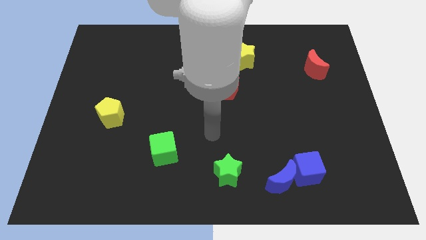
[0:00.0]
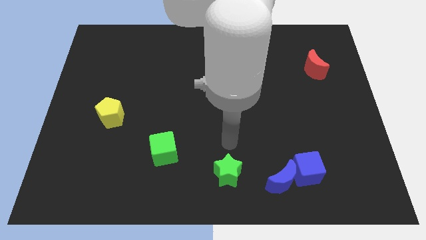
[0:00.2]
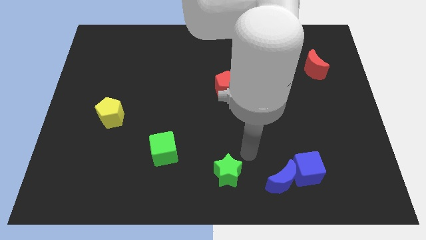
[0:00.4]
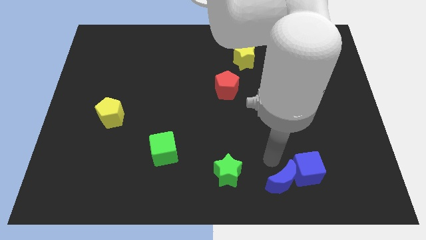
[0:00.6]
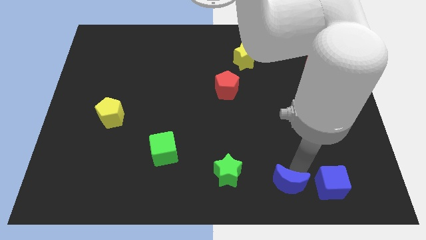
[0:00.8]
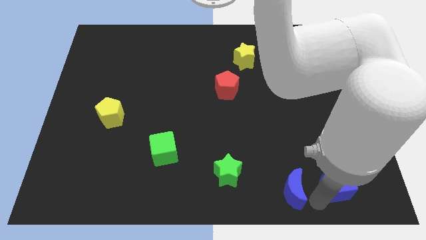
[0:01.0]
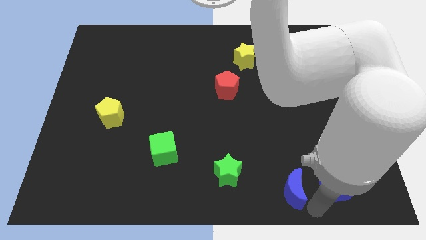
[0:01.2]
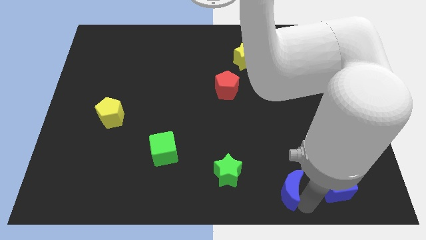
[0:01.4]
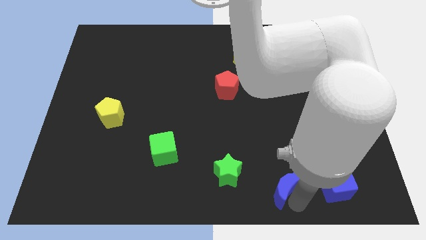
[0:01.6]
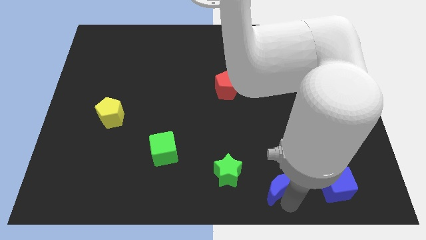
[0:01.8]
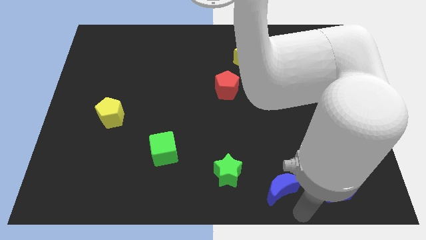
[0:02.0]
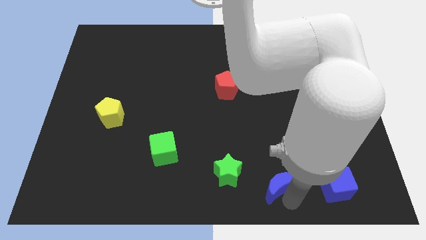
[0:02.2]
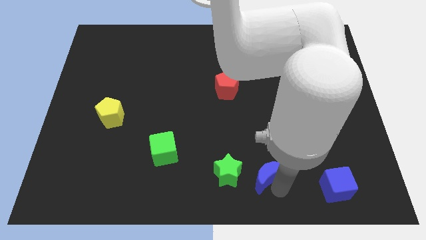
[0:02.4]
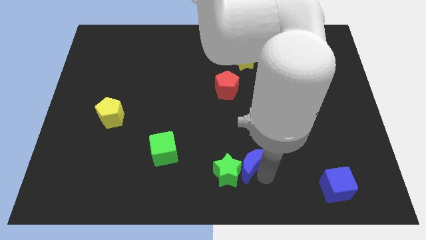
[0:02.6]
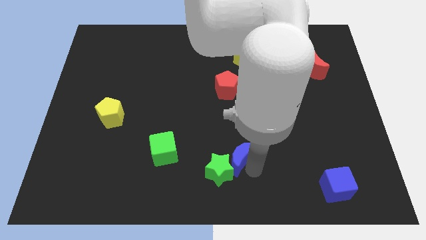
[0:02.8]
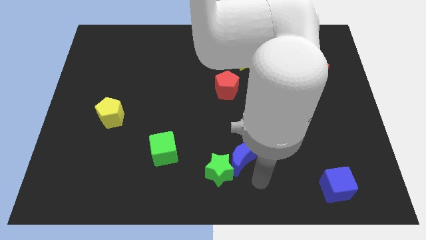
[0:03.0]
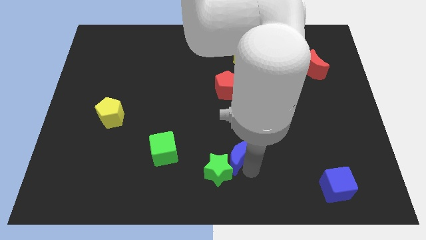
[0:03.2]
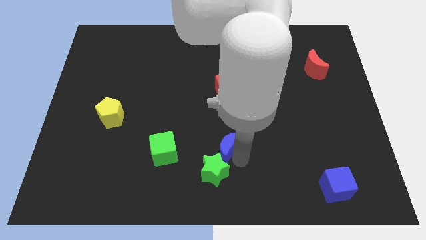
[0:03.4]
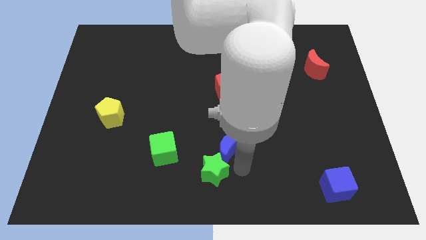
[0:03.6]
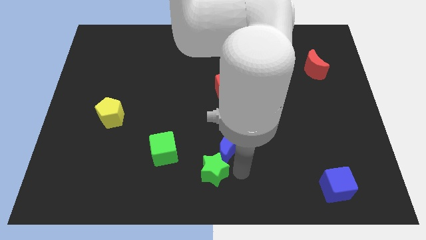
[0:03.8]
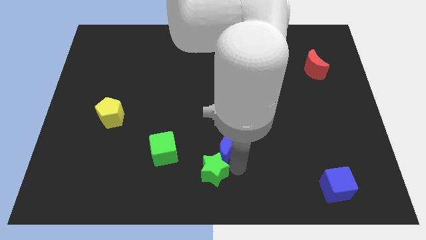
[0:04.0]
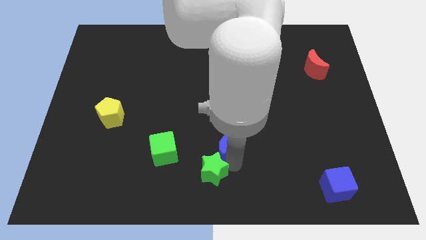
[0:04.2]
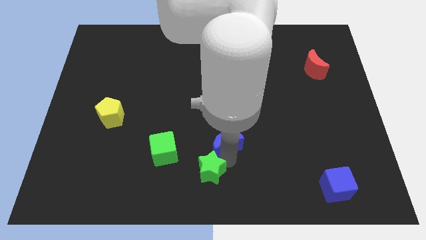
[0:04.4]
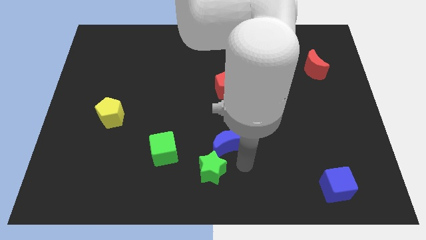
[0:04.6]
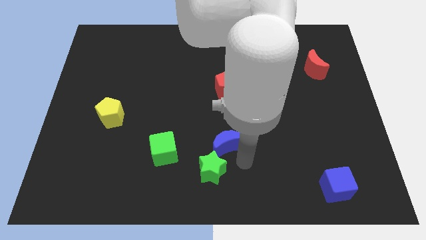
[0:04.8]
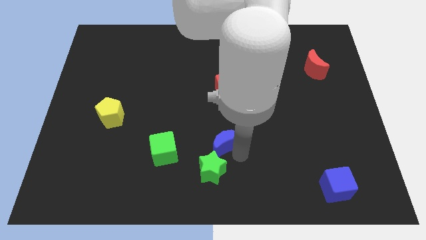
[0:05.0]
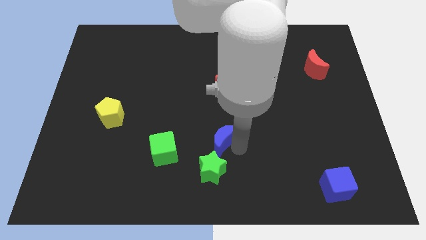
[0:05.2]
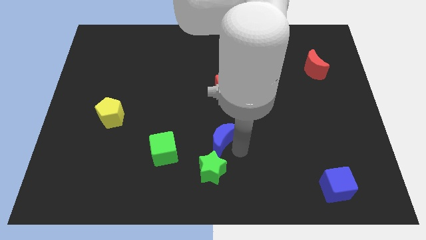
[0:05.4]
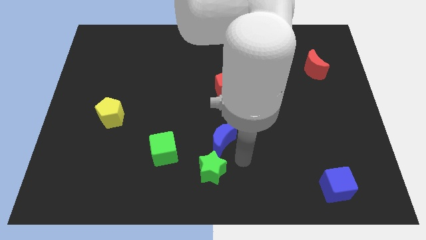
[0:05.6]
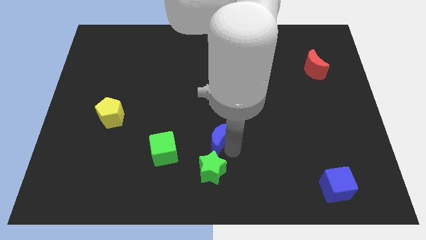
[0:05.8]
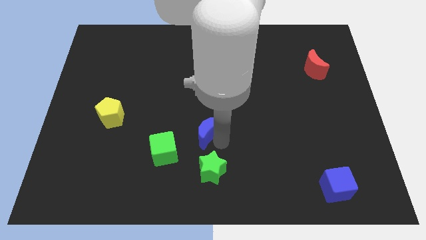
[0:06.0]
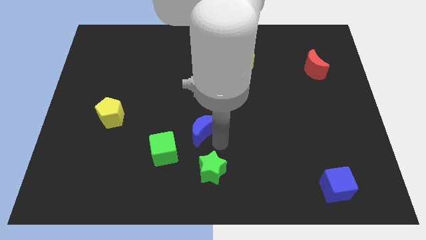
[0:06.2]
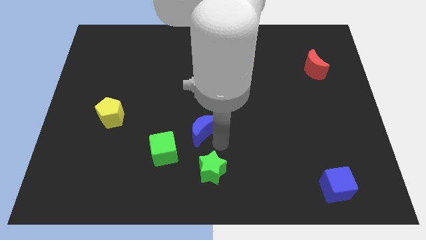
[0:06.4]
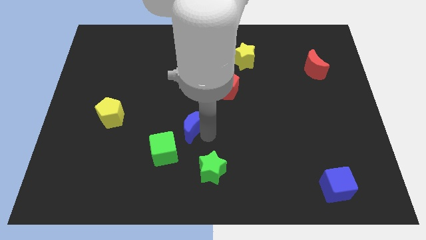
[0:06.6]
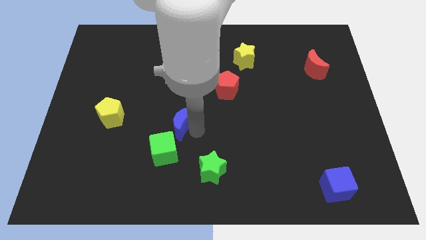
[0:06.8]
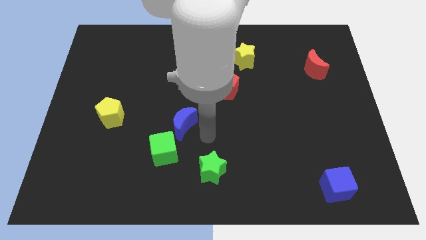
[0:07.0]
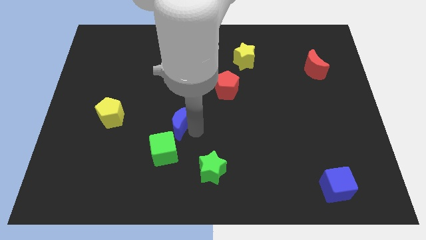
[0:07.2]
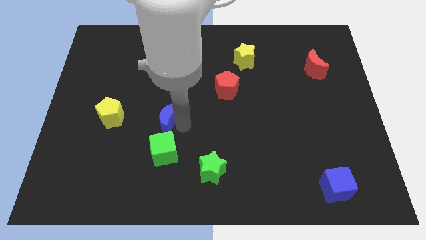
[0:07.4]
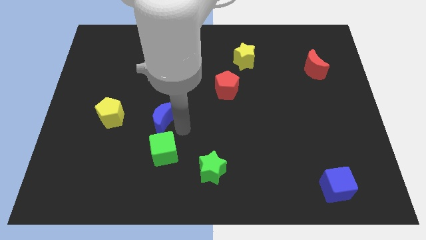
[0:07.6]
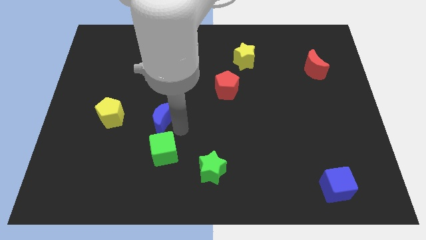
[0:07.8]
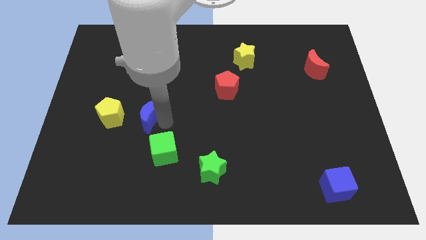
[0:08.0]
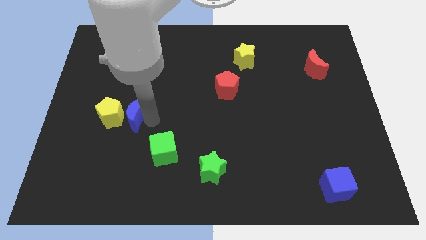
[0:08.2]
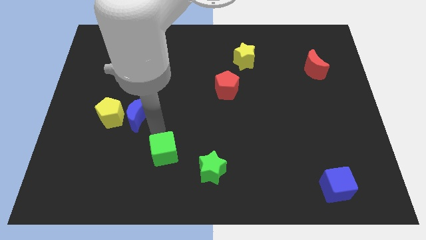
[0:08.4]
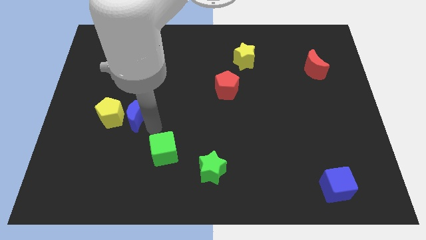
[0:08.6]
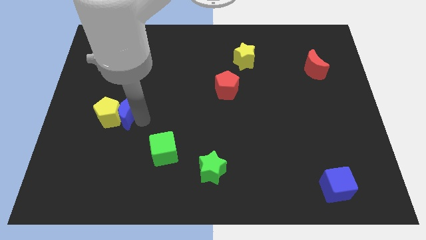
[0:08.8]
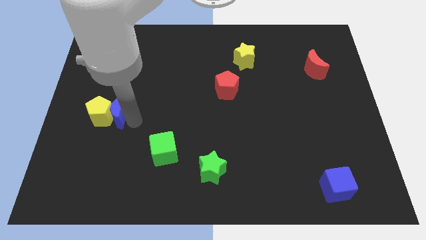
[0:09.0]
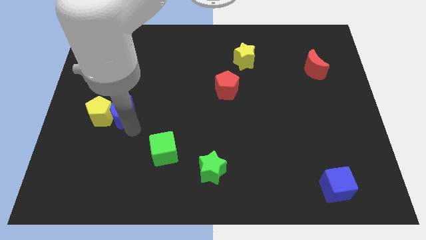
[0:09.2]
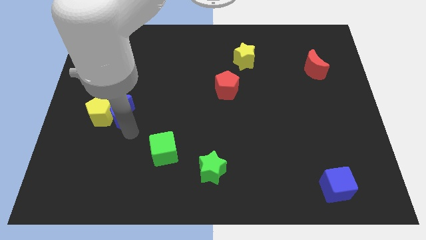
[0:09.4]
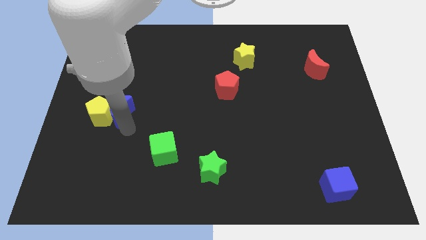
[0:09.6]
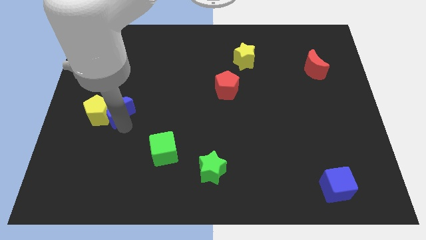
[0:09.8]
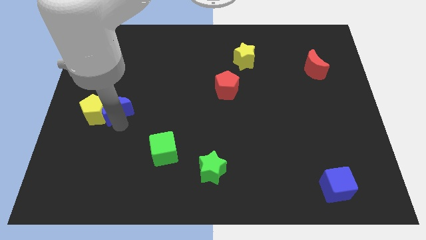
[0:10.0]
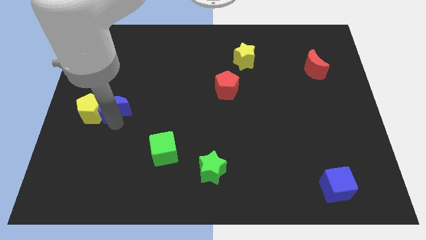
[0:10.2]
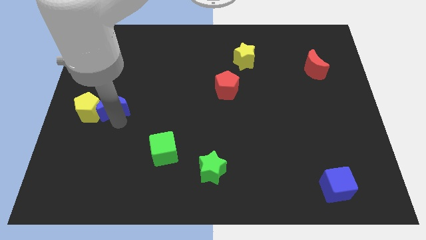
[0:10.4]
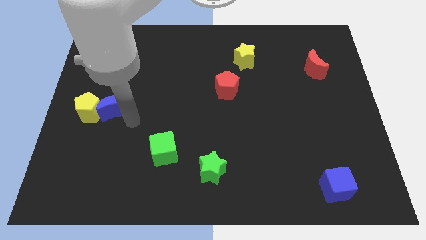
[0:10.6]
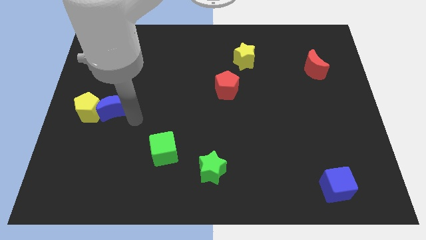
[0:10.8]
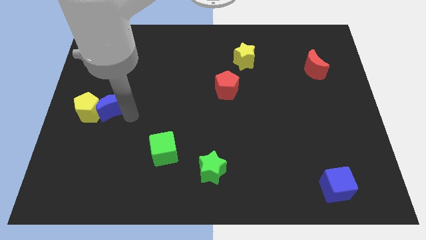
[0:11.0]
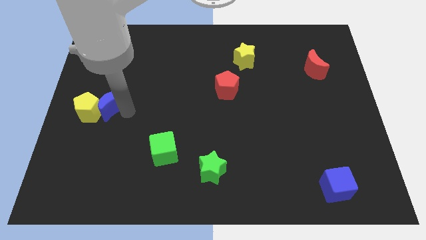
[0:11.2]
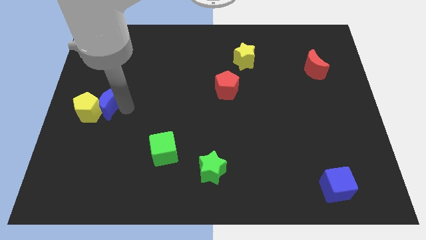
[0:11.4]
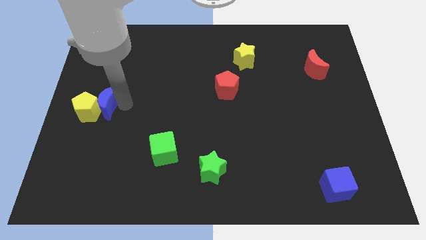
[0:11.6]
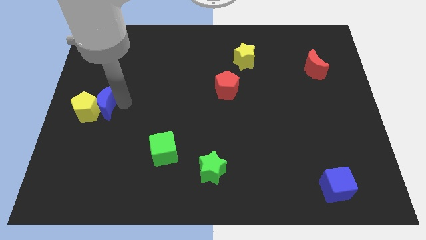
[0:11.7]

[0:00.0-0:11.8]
push the blue moon to the center left

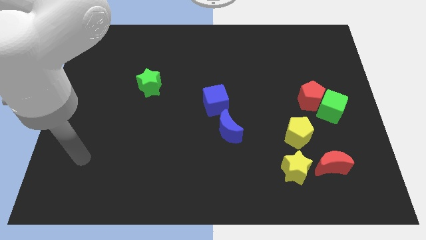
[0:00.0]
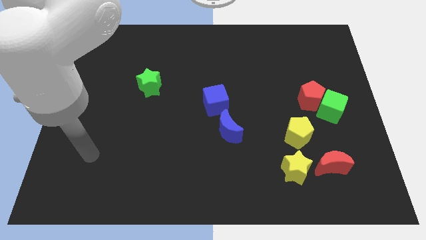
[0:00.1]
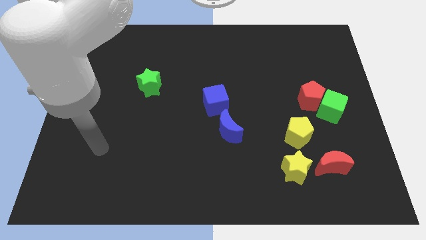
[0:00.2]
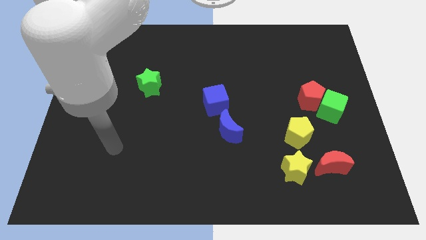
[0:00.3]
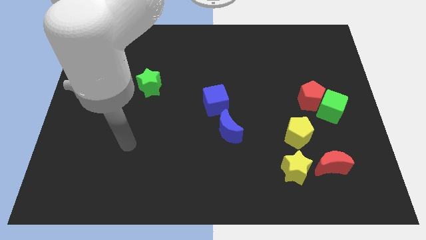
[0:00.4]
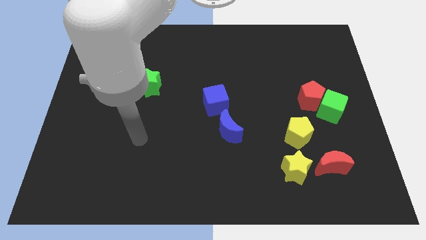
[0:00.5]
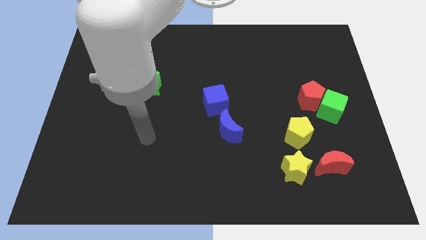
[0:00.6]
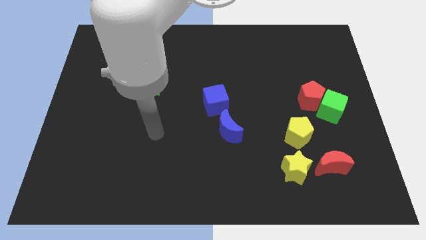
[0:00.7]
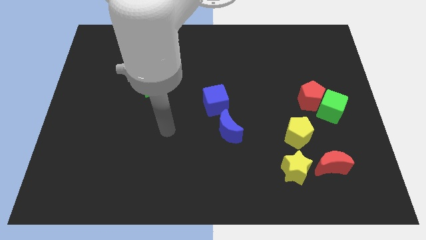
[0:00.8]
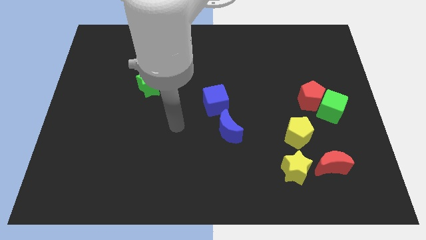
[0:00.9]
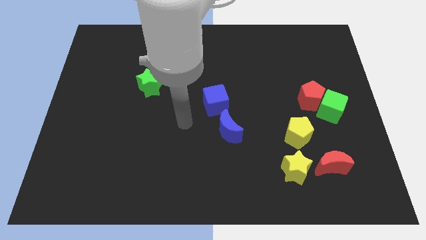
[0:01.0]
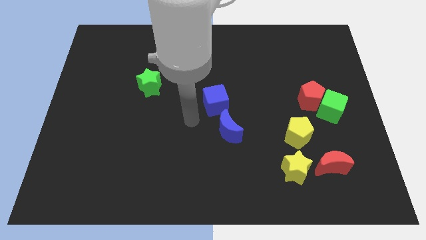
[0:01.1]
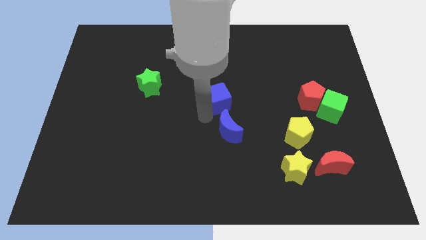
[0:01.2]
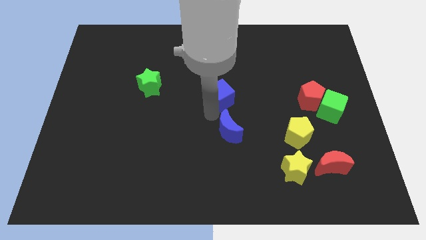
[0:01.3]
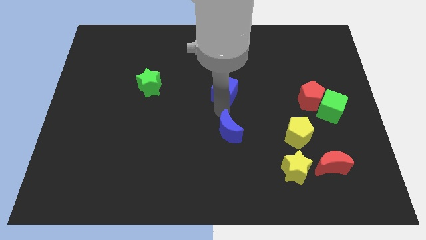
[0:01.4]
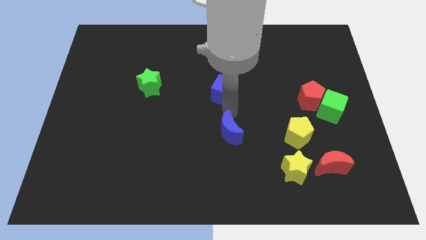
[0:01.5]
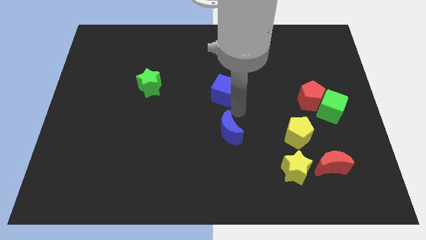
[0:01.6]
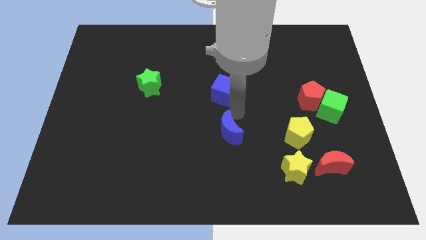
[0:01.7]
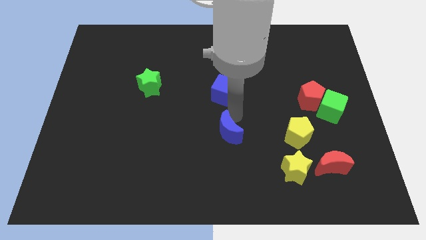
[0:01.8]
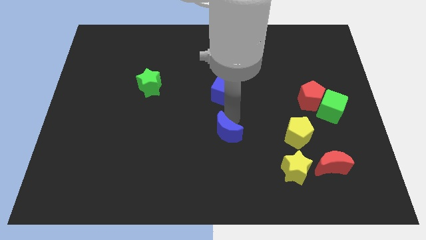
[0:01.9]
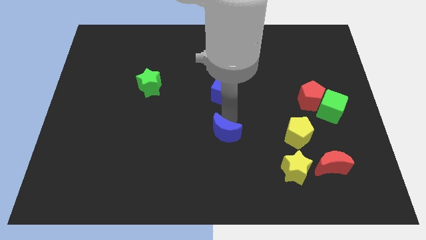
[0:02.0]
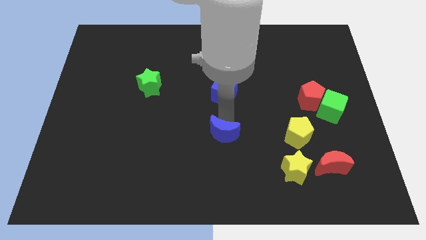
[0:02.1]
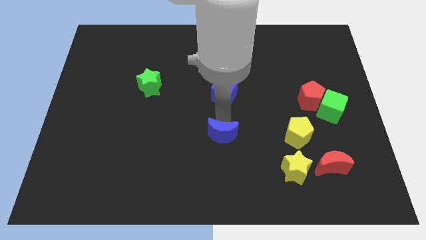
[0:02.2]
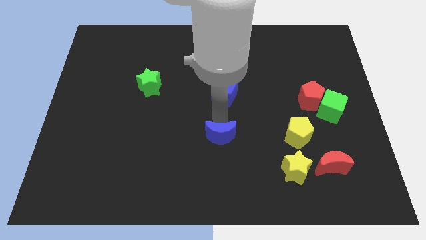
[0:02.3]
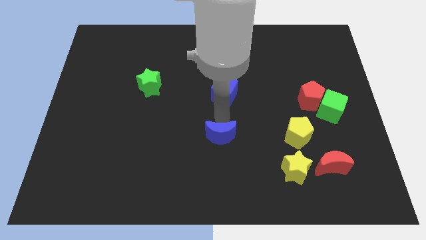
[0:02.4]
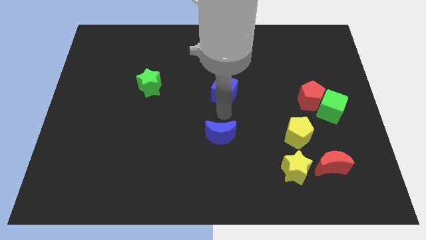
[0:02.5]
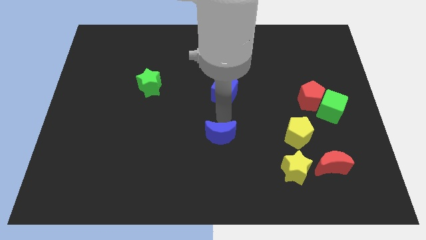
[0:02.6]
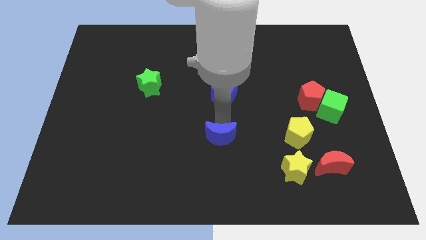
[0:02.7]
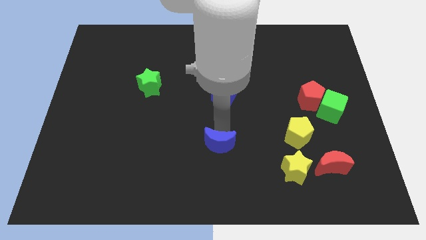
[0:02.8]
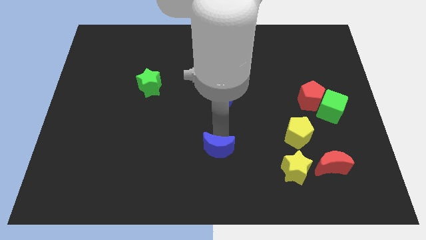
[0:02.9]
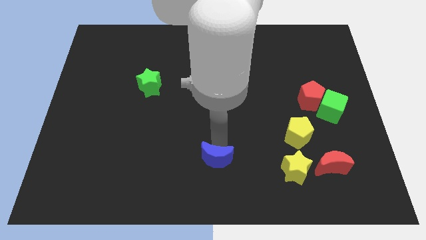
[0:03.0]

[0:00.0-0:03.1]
slide the blue moon to the bottom
